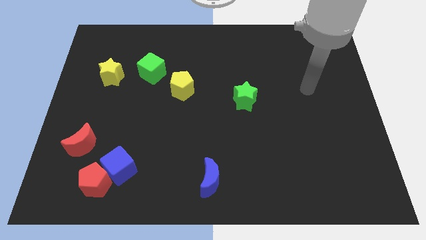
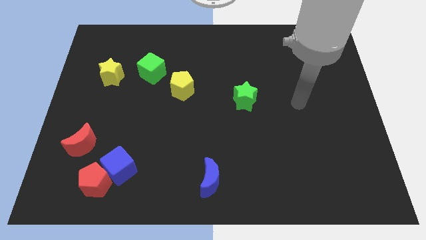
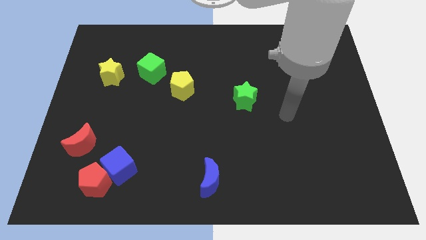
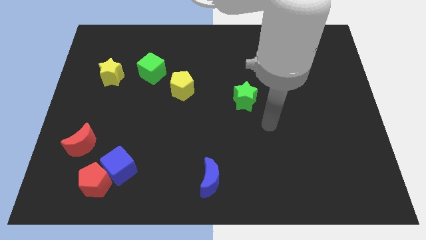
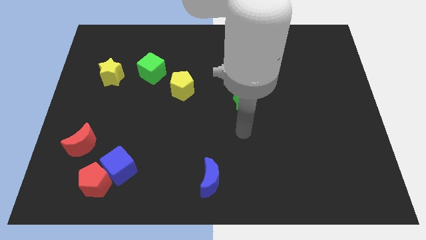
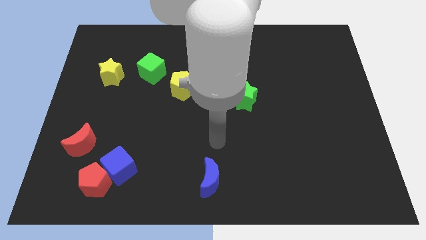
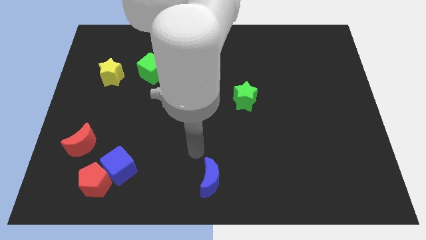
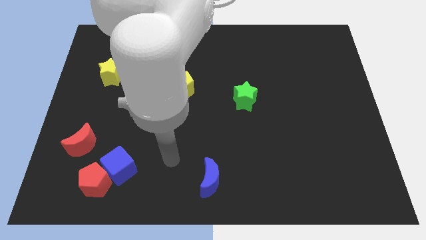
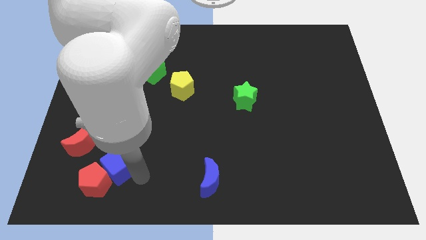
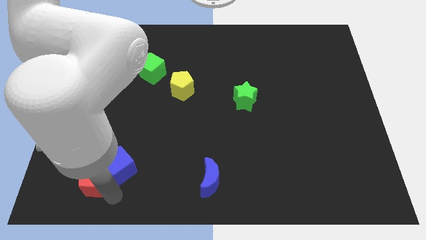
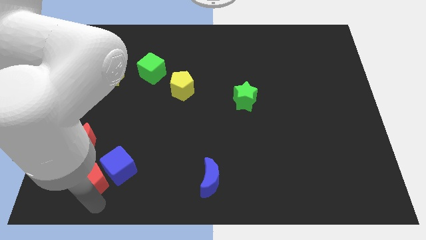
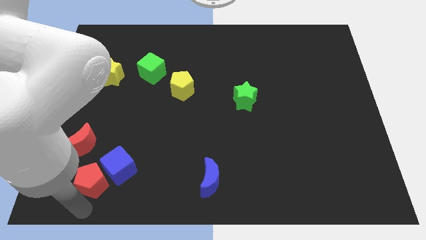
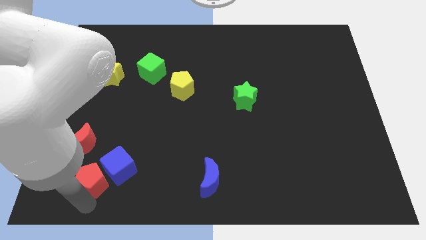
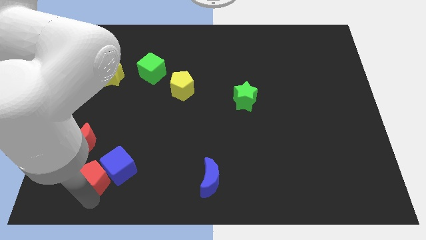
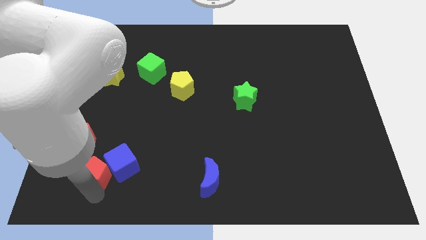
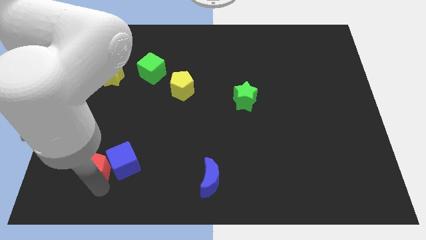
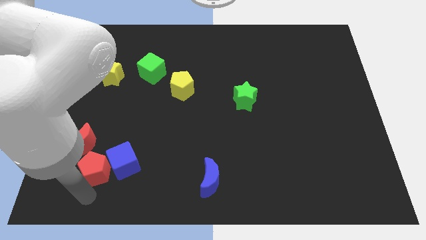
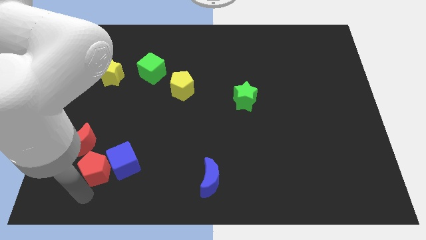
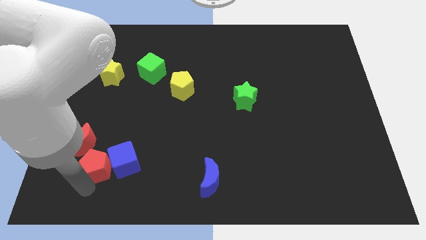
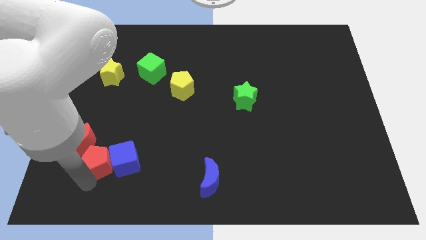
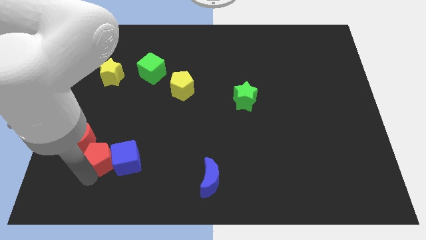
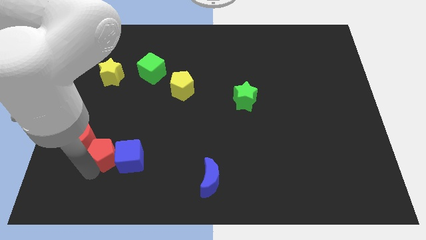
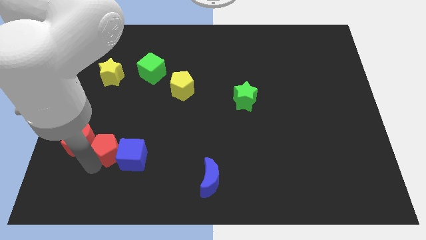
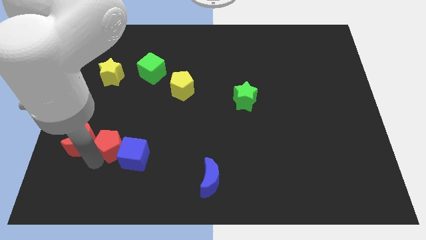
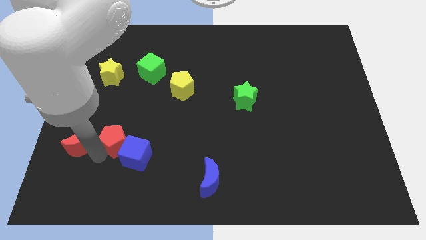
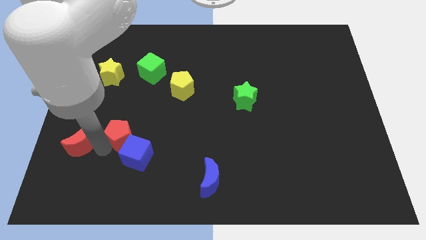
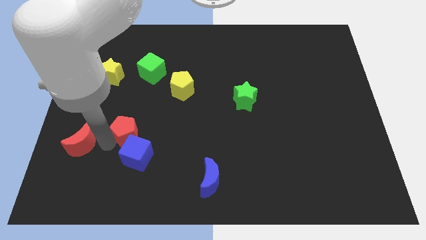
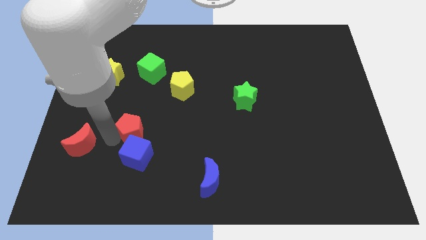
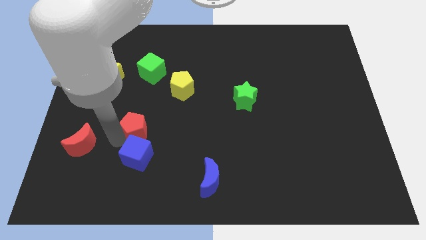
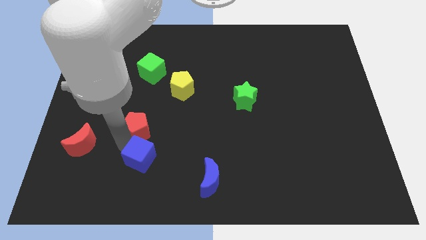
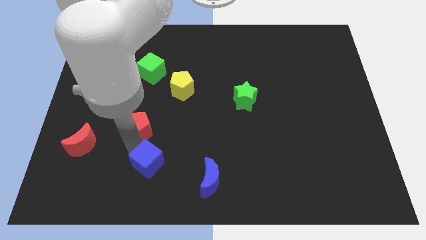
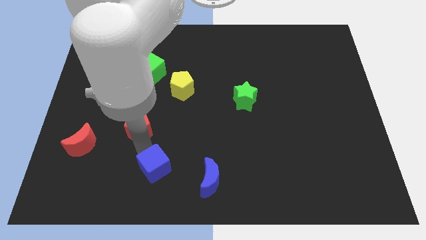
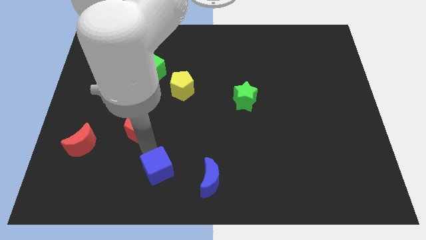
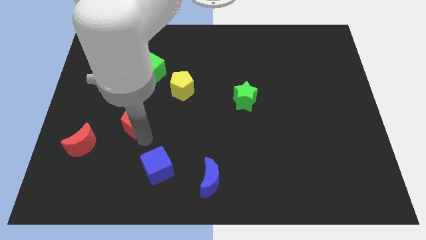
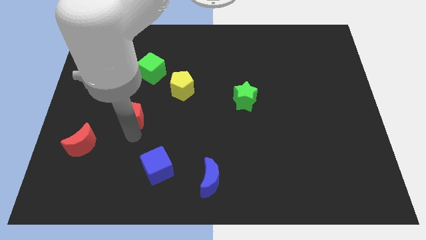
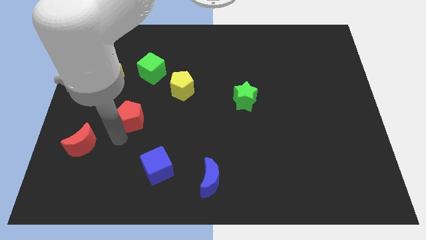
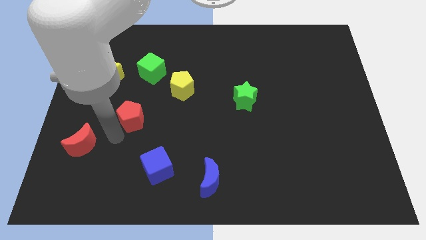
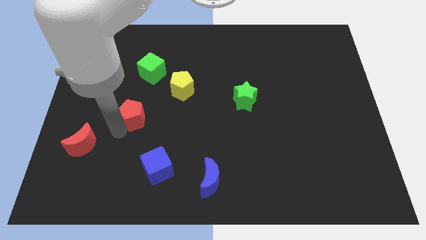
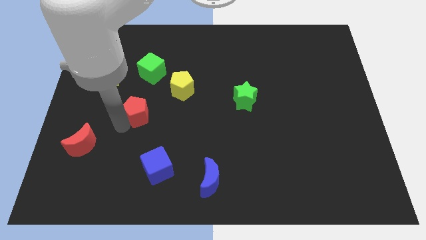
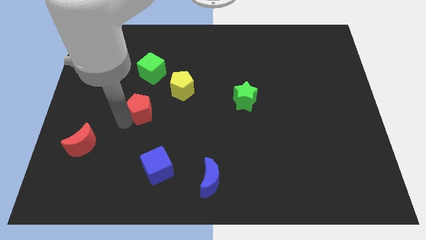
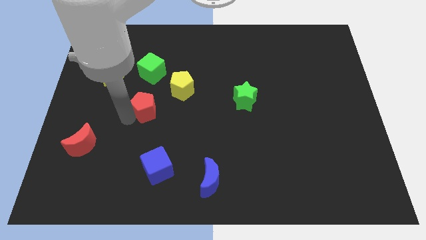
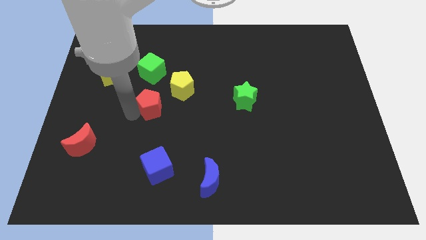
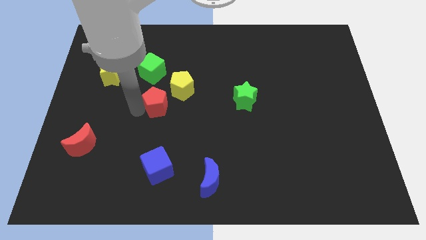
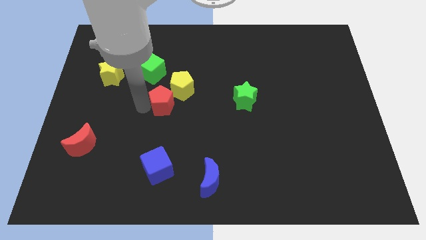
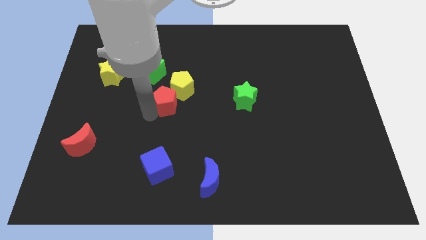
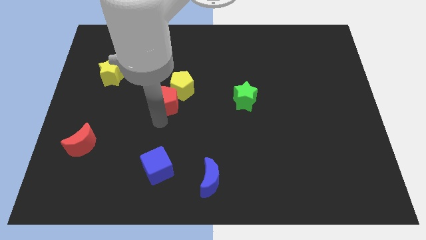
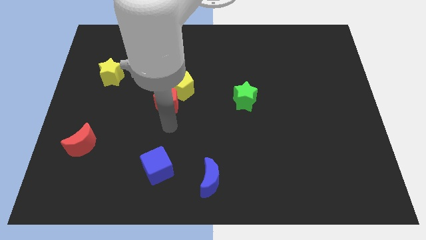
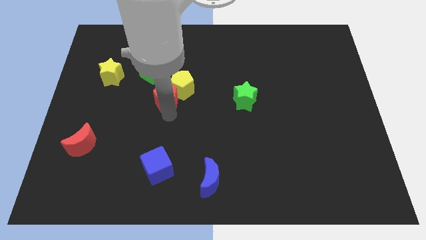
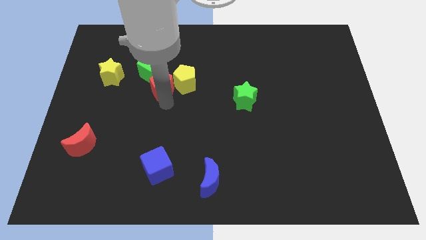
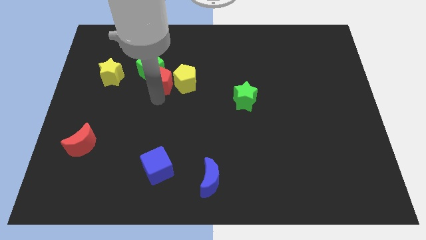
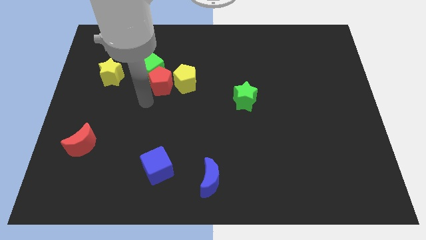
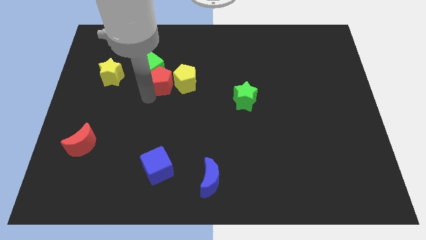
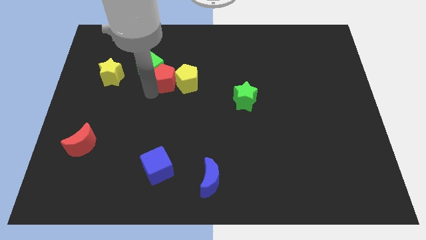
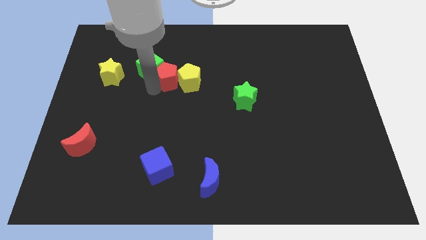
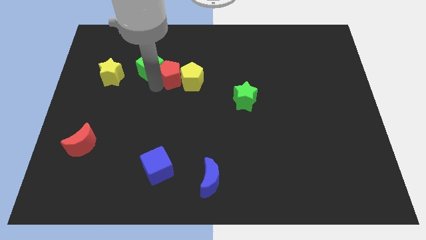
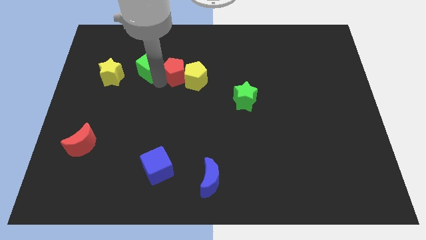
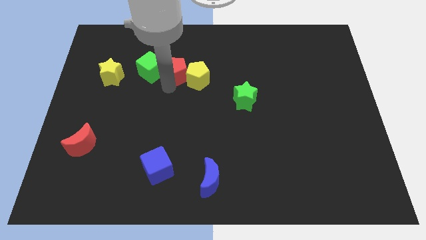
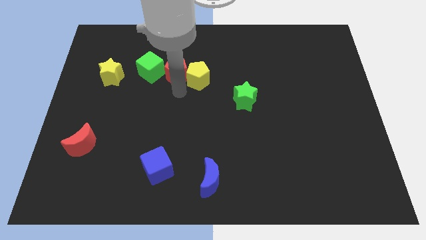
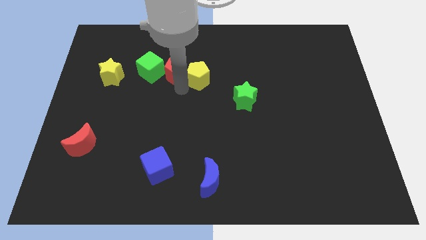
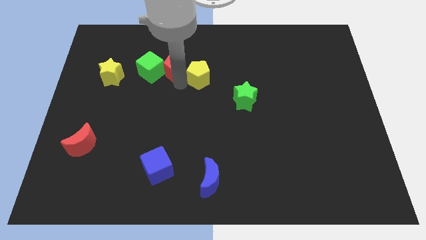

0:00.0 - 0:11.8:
put the red pentagon to the top right side of the green cube

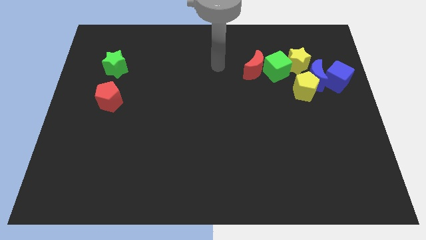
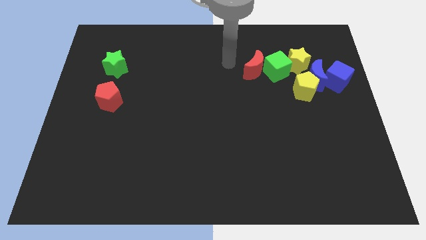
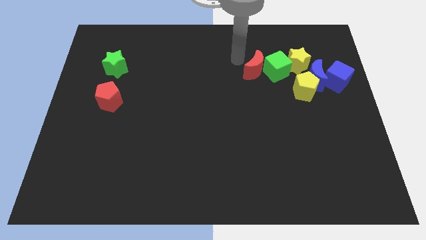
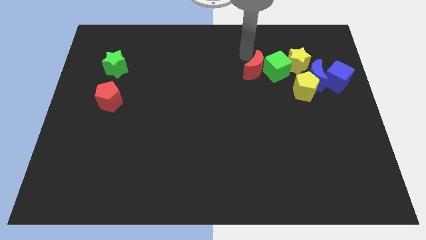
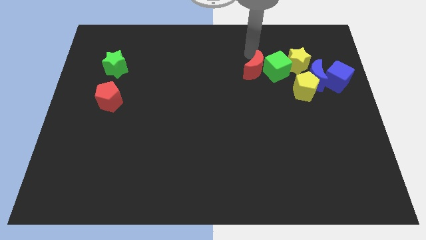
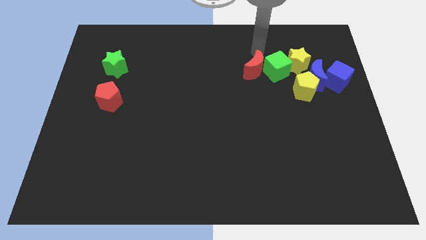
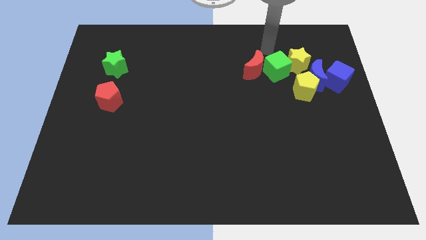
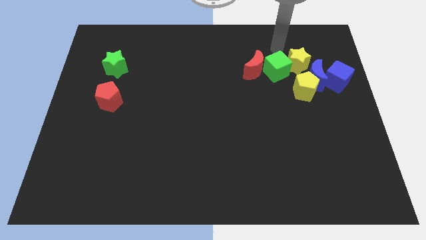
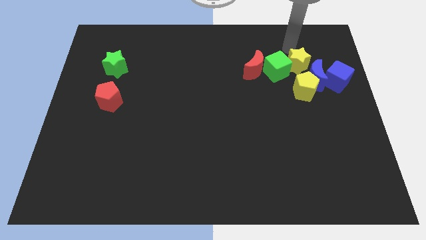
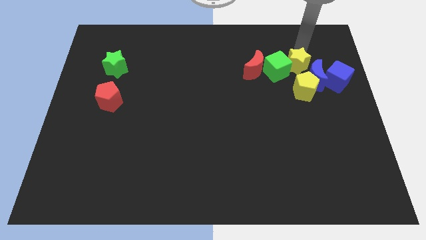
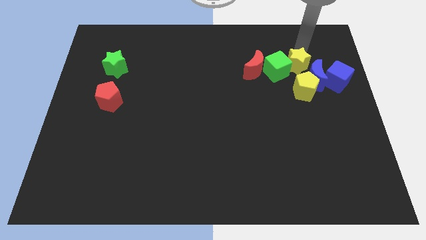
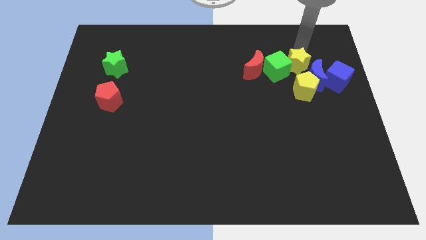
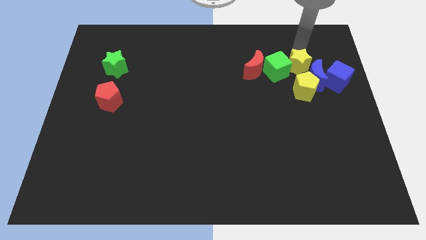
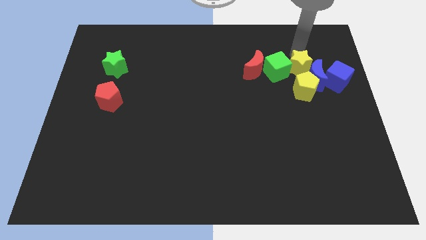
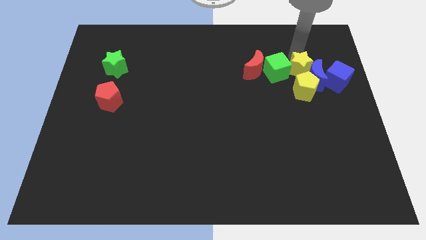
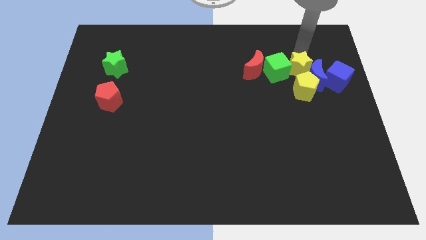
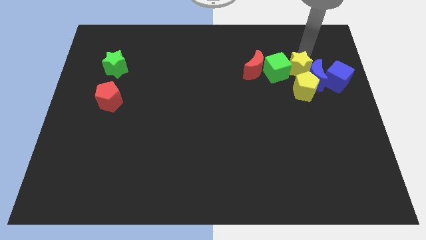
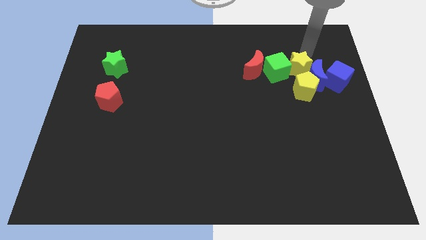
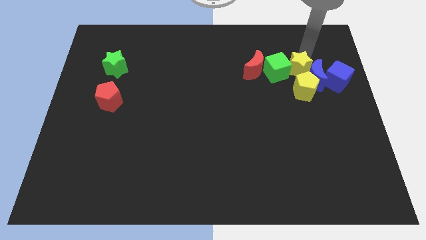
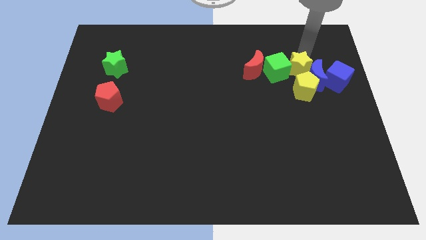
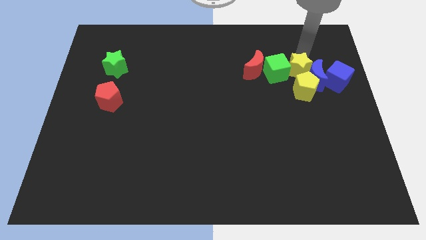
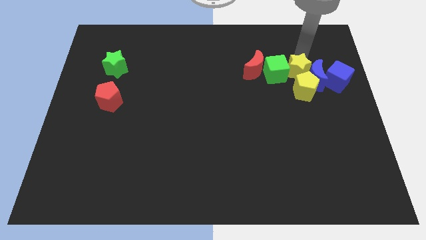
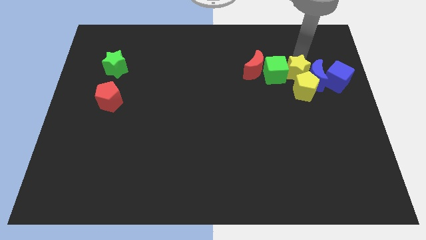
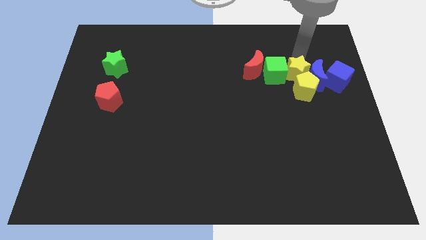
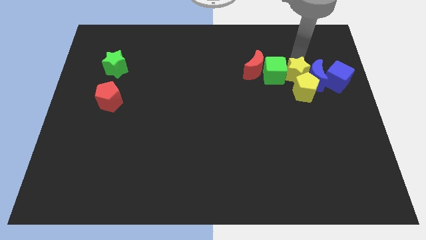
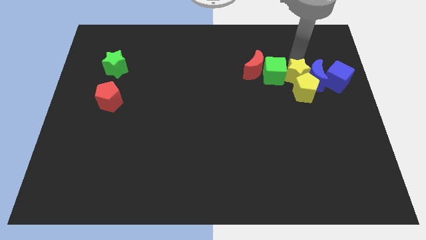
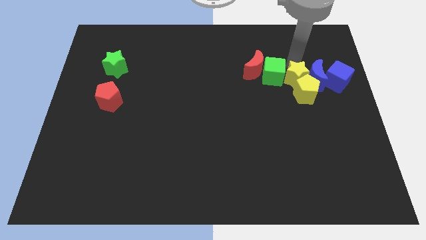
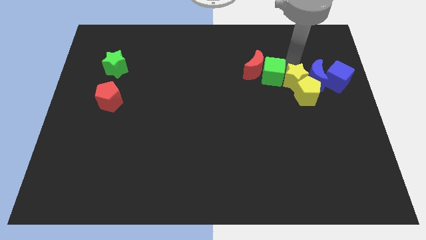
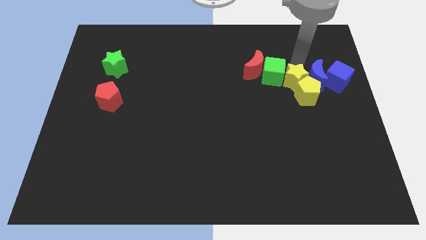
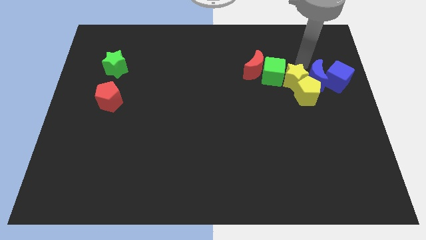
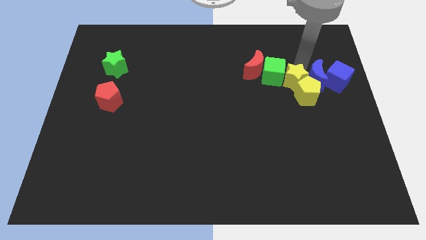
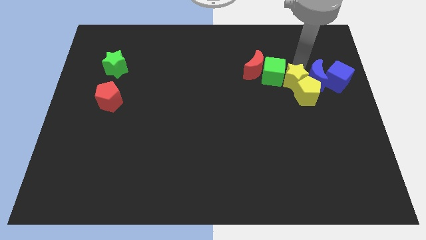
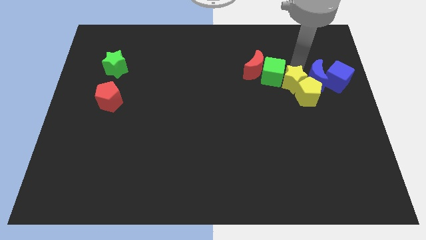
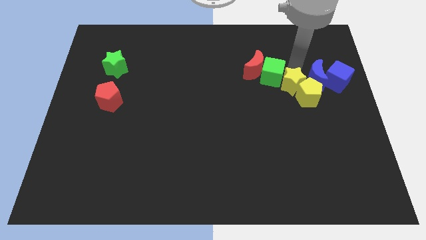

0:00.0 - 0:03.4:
slide the yellow star to the bottom of the green cube
